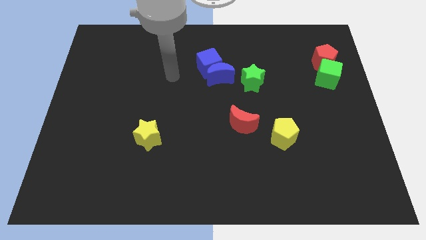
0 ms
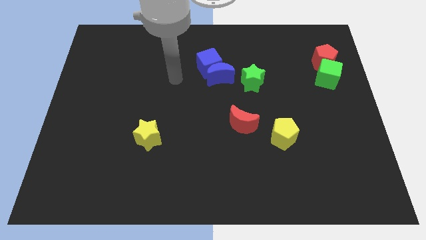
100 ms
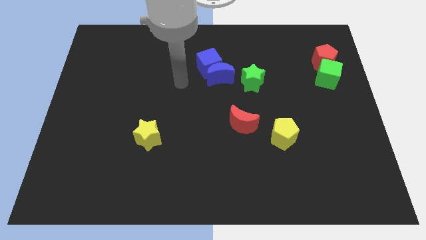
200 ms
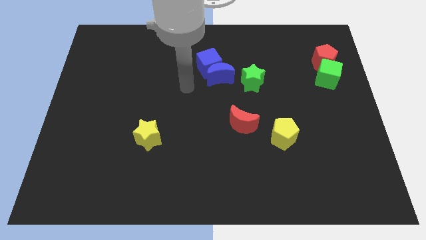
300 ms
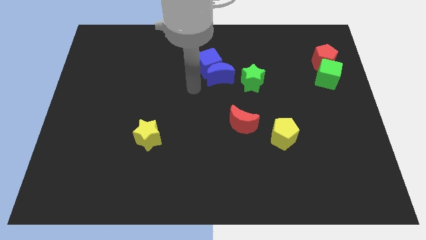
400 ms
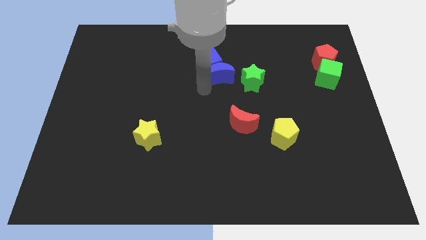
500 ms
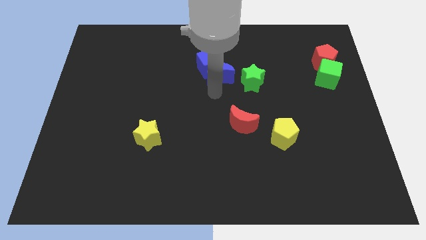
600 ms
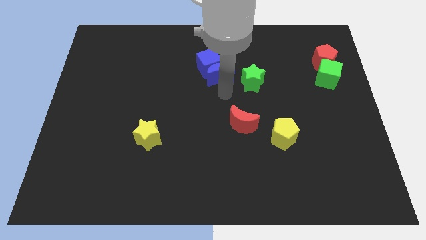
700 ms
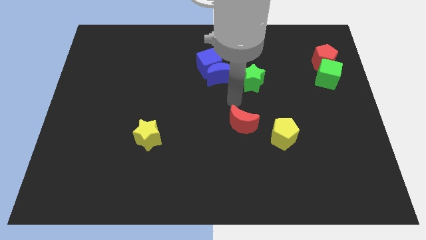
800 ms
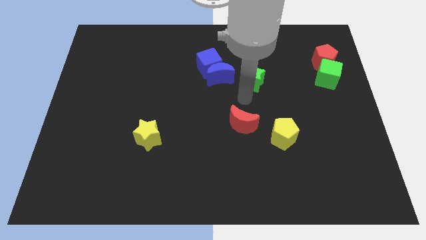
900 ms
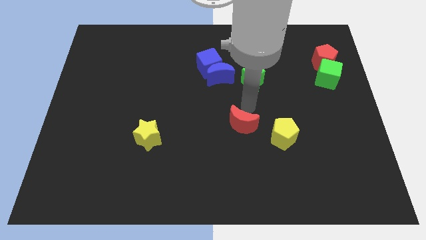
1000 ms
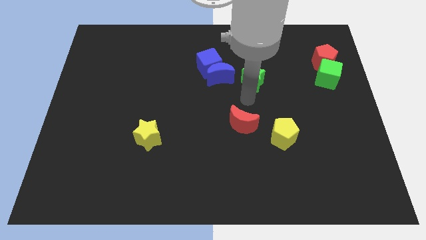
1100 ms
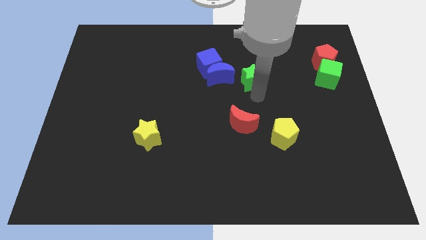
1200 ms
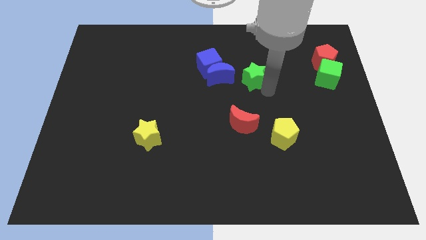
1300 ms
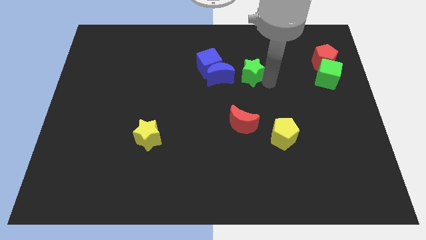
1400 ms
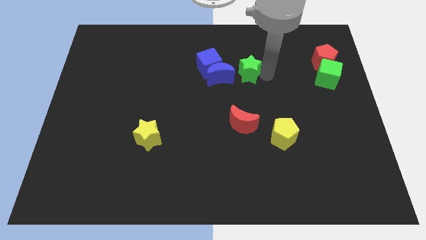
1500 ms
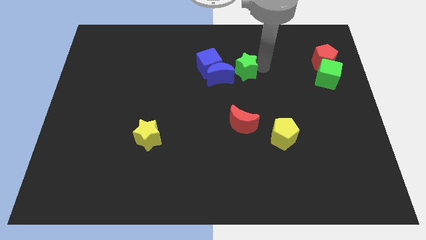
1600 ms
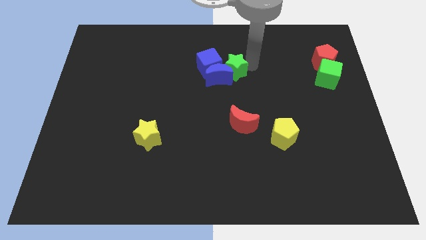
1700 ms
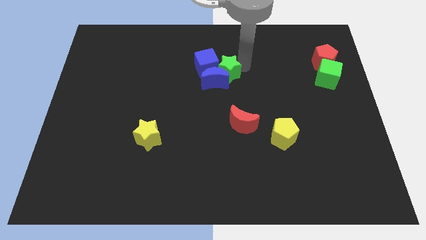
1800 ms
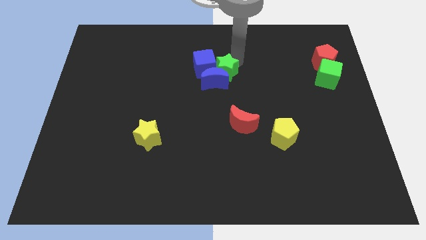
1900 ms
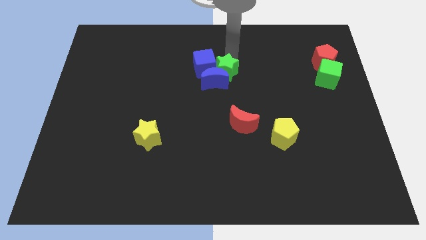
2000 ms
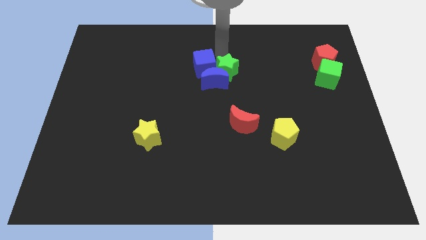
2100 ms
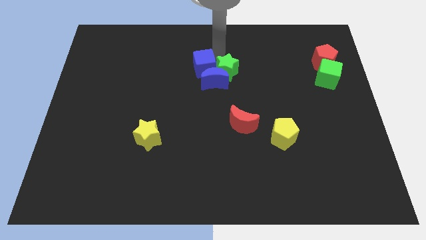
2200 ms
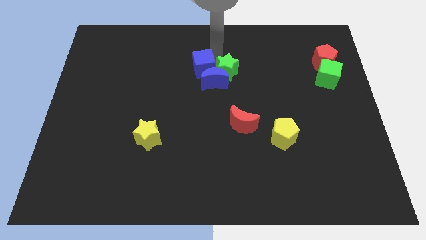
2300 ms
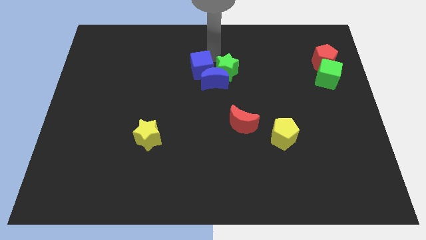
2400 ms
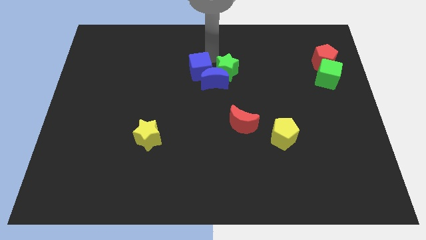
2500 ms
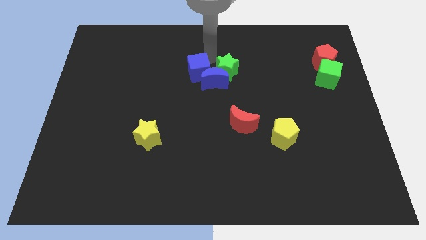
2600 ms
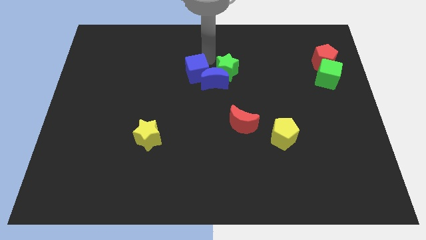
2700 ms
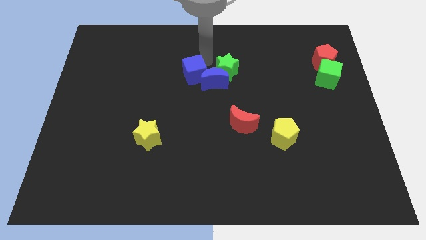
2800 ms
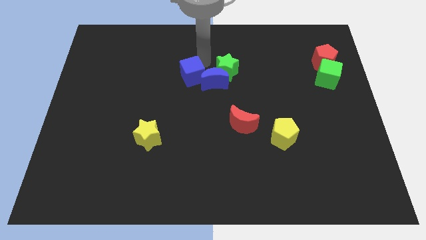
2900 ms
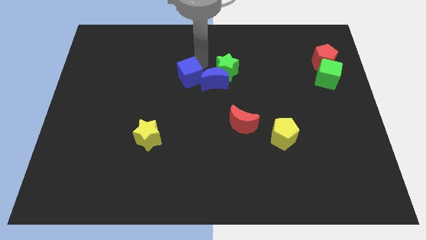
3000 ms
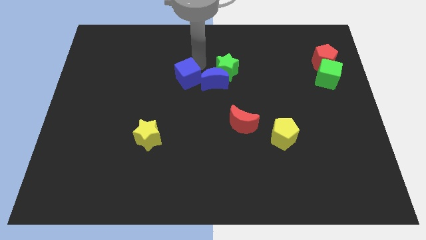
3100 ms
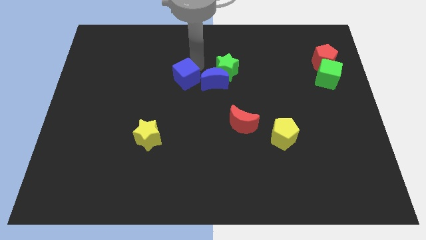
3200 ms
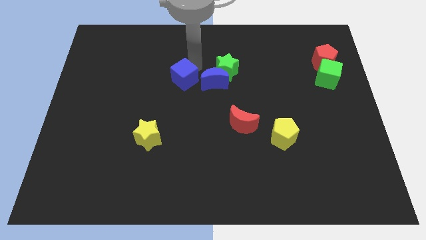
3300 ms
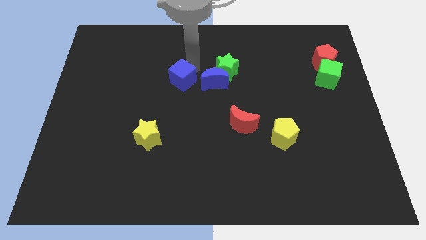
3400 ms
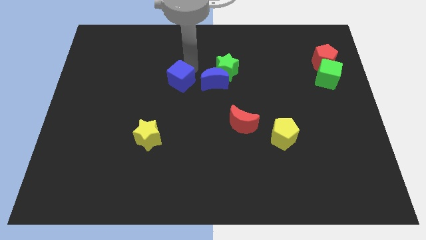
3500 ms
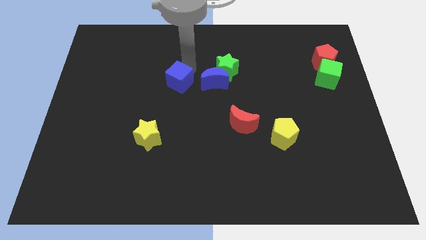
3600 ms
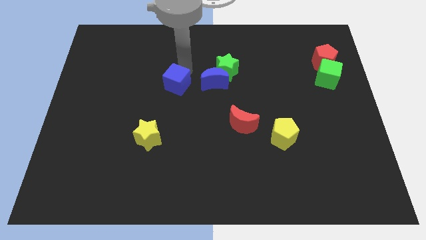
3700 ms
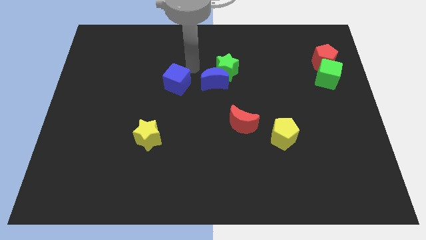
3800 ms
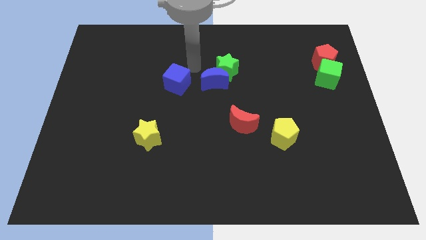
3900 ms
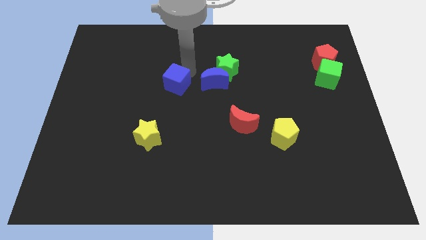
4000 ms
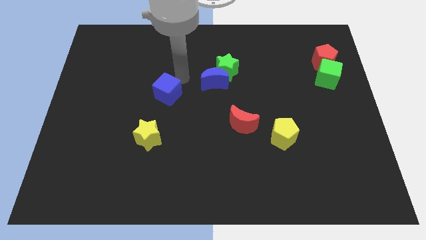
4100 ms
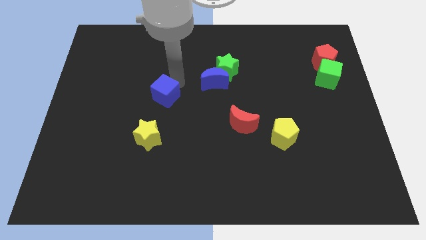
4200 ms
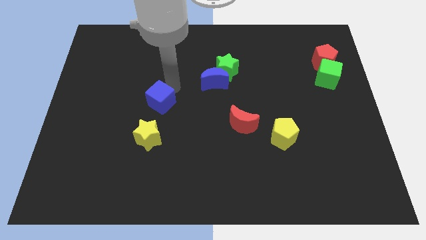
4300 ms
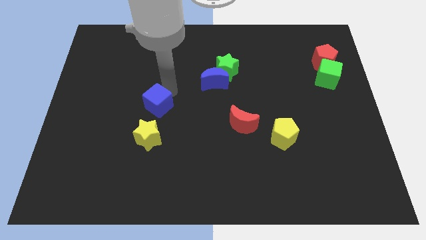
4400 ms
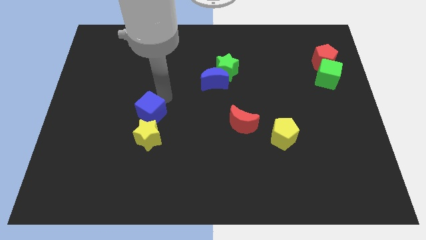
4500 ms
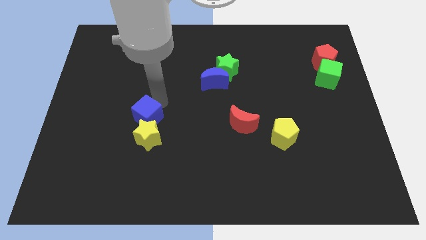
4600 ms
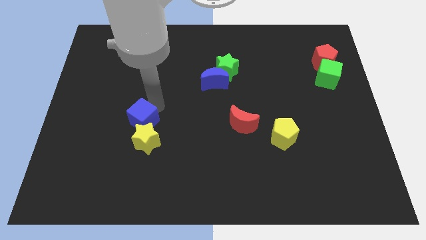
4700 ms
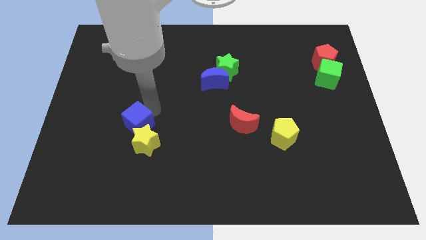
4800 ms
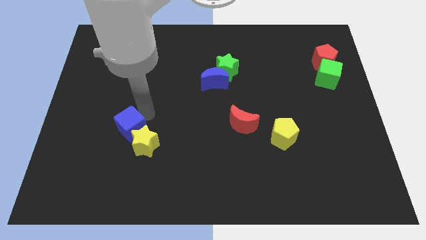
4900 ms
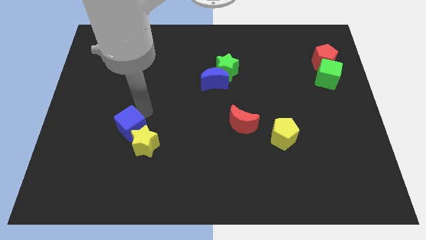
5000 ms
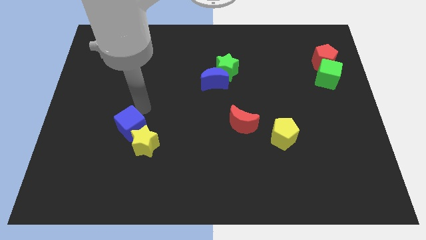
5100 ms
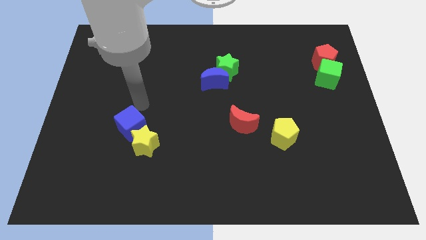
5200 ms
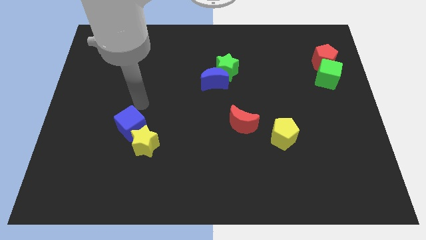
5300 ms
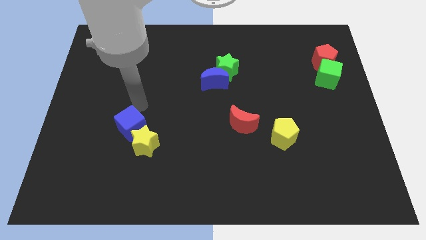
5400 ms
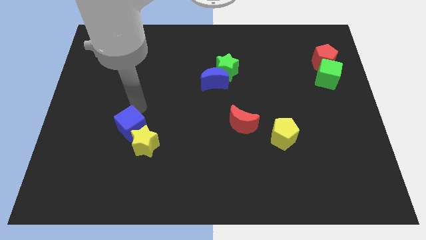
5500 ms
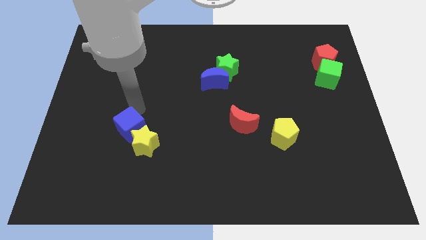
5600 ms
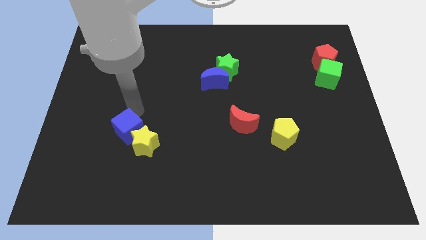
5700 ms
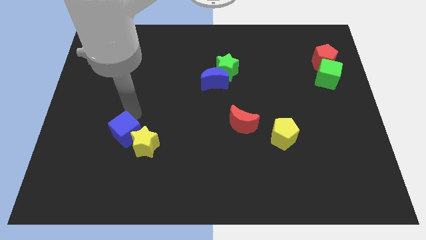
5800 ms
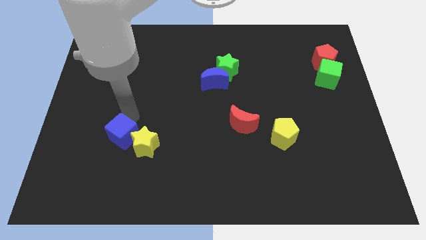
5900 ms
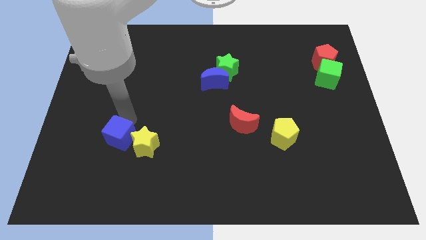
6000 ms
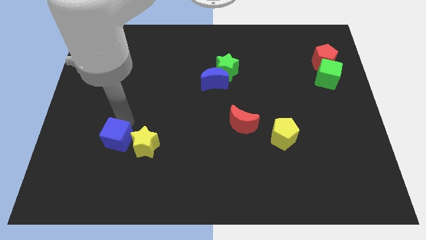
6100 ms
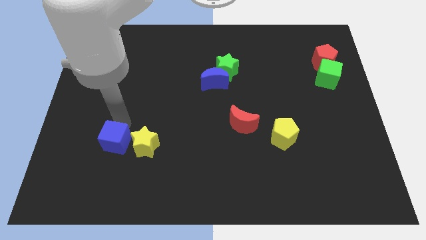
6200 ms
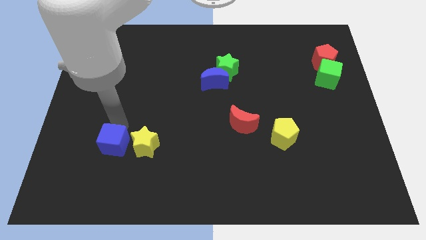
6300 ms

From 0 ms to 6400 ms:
push the blue cube to the bottom left of the yellow star

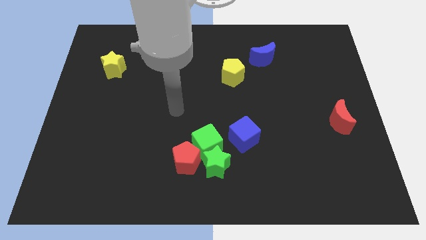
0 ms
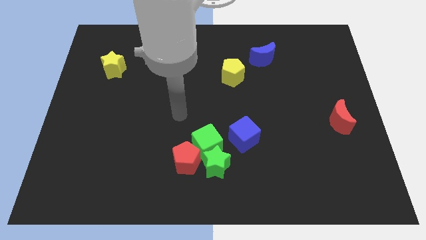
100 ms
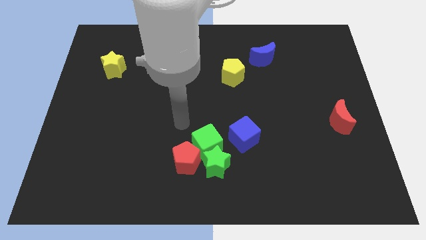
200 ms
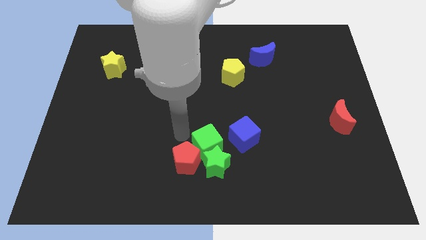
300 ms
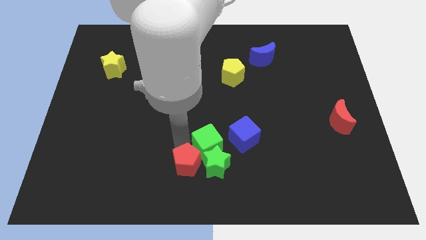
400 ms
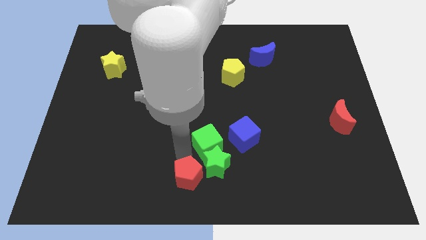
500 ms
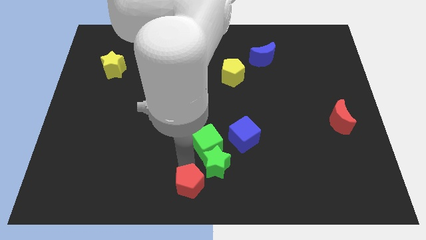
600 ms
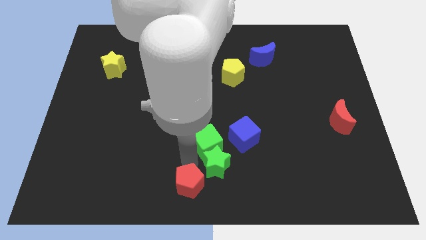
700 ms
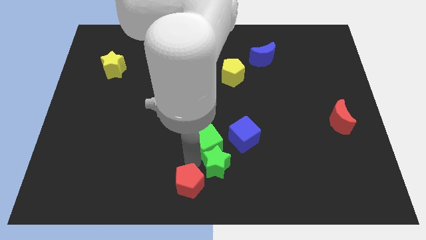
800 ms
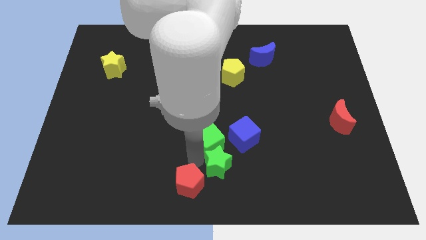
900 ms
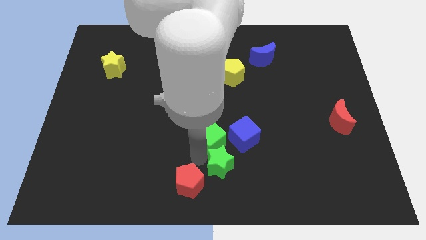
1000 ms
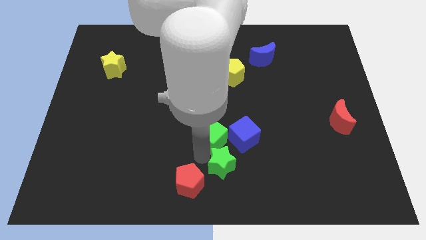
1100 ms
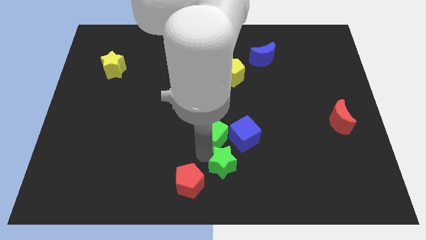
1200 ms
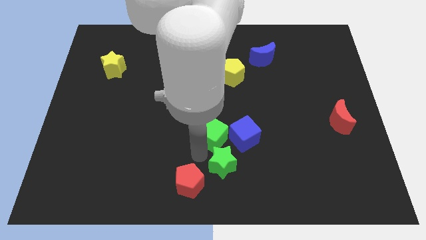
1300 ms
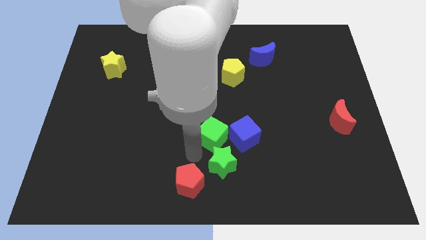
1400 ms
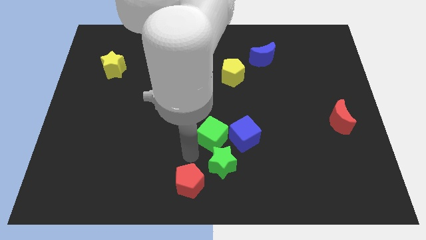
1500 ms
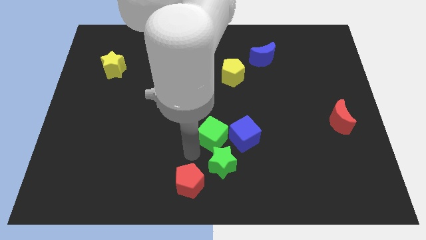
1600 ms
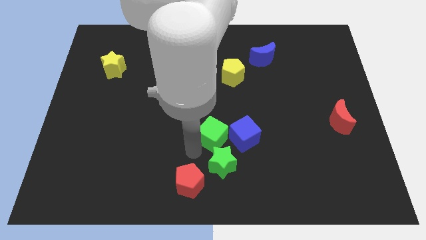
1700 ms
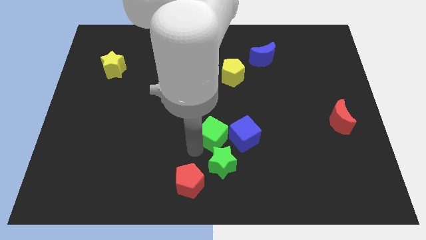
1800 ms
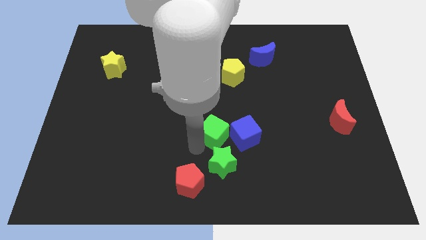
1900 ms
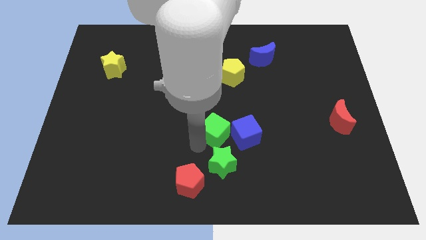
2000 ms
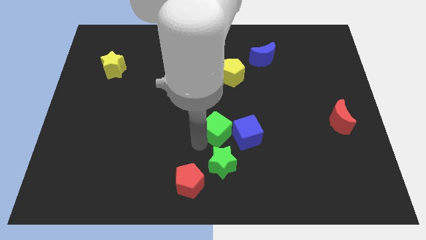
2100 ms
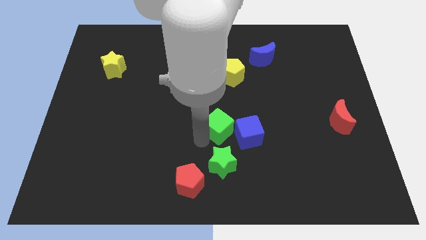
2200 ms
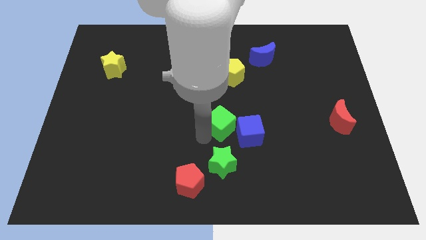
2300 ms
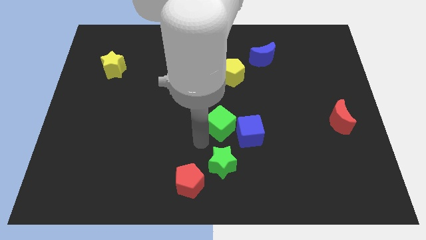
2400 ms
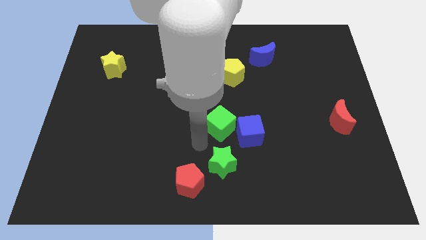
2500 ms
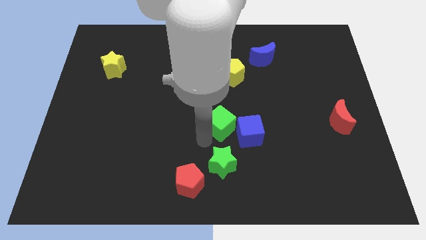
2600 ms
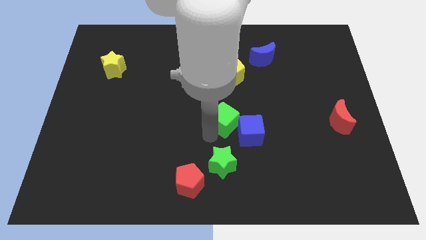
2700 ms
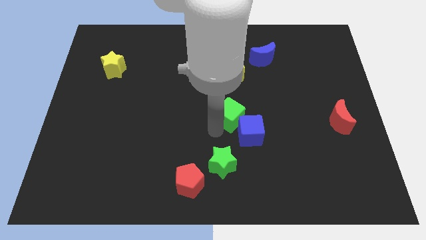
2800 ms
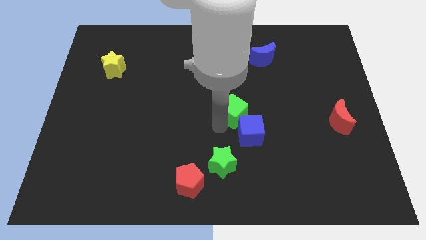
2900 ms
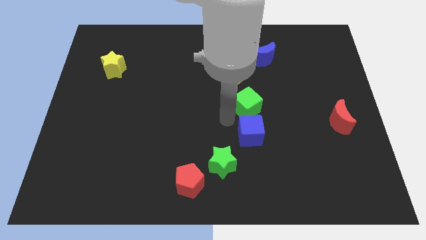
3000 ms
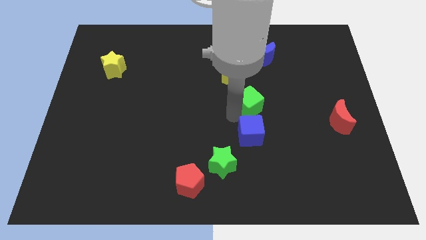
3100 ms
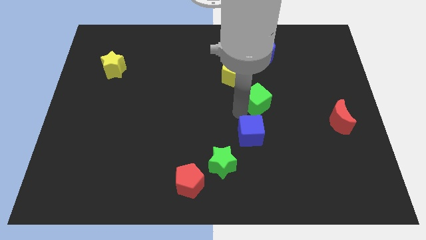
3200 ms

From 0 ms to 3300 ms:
move the green cube to the bottom side of the blue moon
